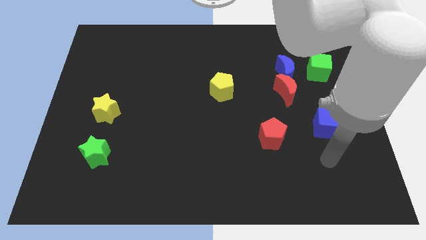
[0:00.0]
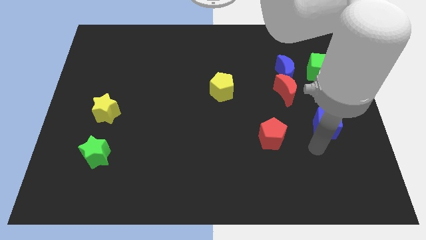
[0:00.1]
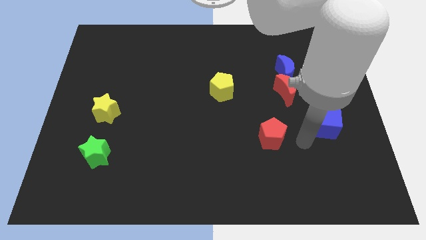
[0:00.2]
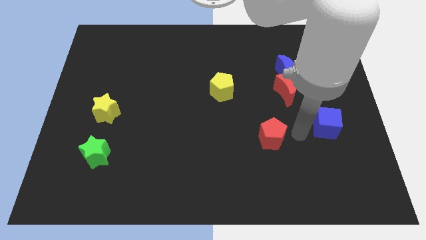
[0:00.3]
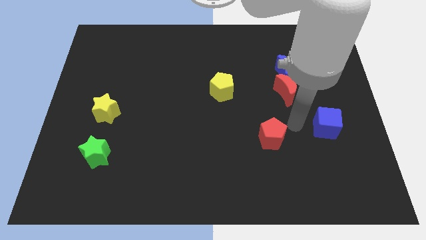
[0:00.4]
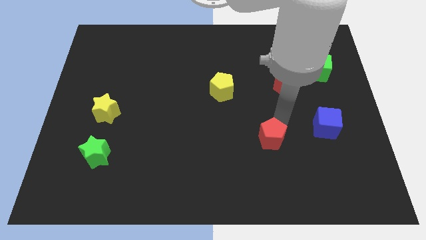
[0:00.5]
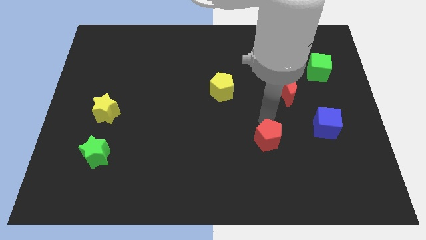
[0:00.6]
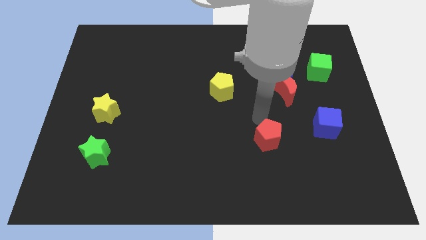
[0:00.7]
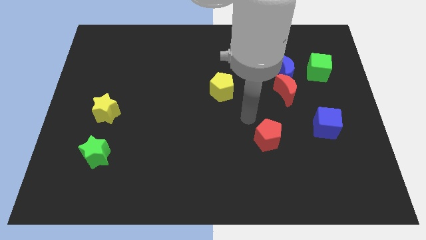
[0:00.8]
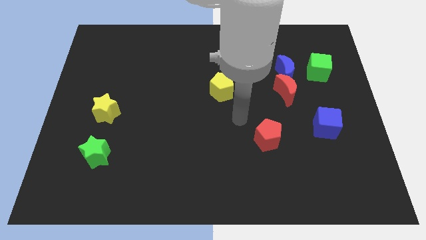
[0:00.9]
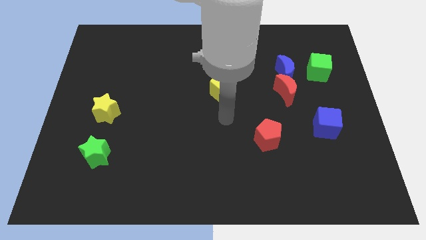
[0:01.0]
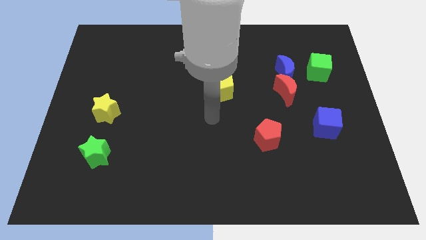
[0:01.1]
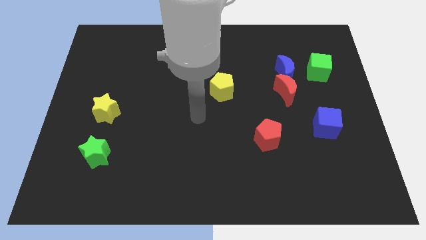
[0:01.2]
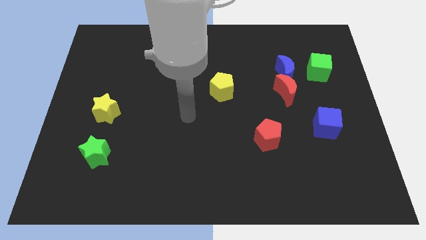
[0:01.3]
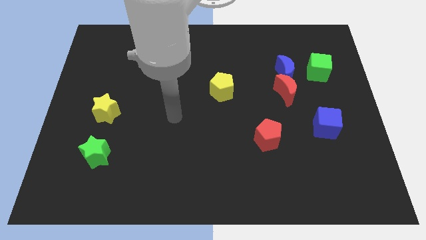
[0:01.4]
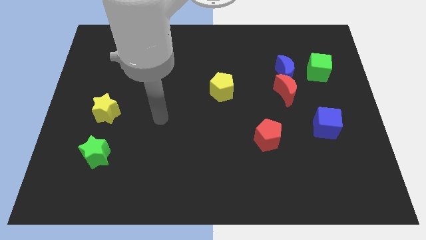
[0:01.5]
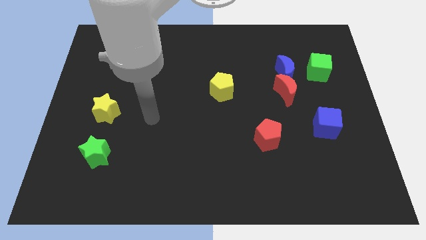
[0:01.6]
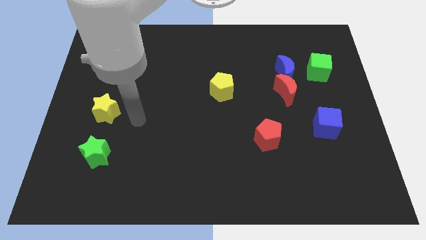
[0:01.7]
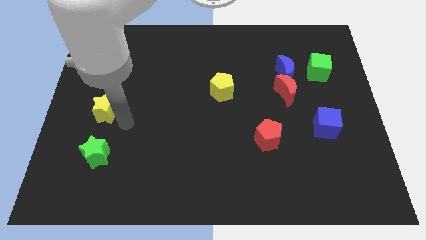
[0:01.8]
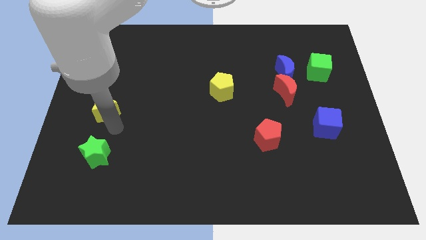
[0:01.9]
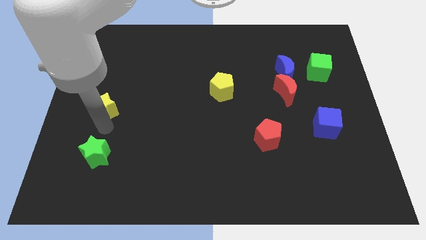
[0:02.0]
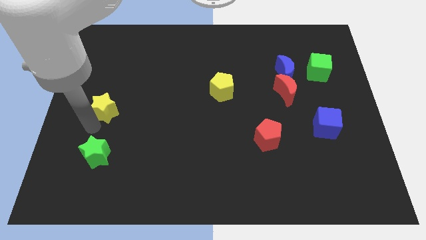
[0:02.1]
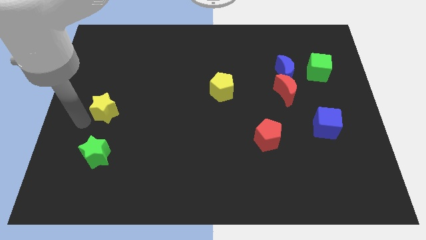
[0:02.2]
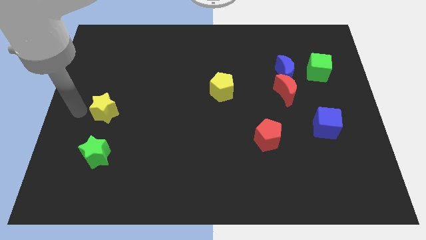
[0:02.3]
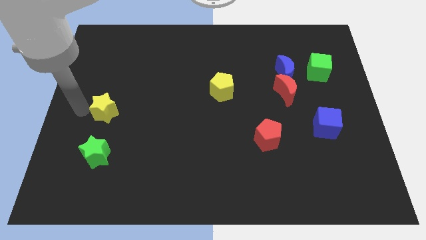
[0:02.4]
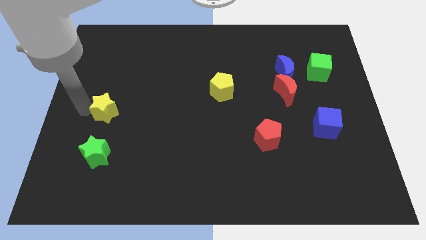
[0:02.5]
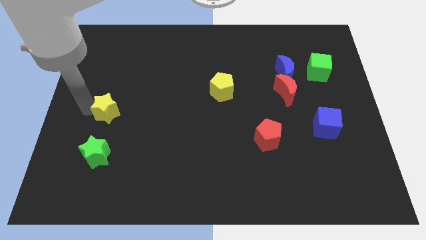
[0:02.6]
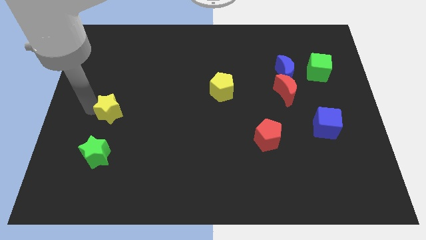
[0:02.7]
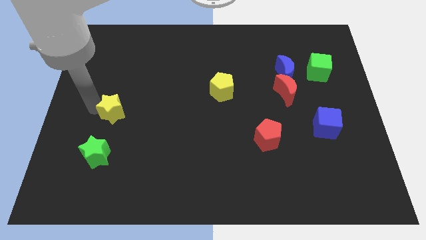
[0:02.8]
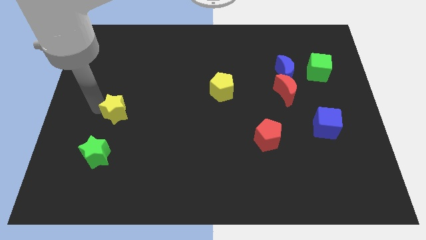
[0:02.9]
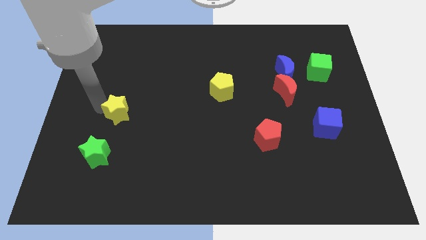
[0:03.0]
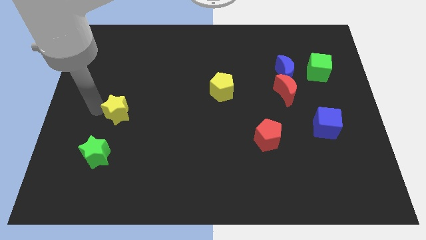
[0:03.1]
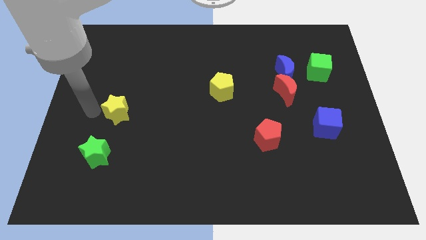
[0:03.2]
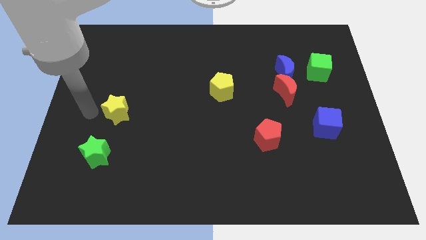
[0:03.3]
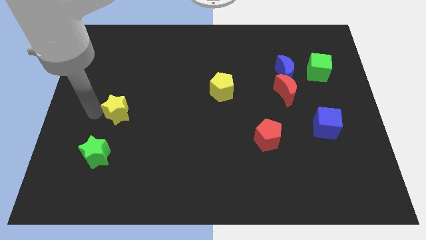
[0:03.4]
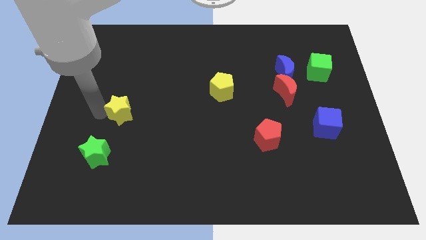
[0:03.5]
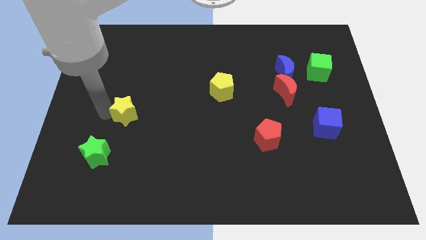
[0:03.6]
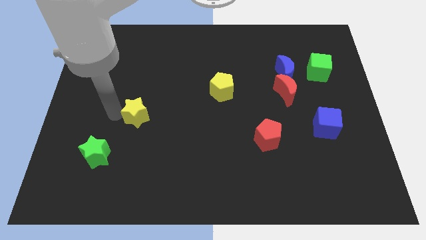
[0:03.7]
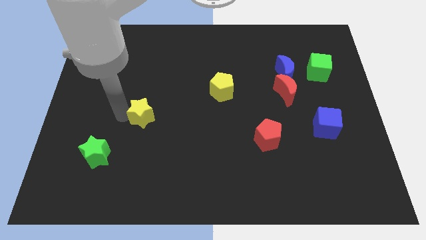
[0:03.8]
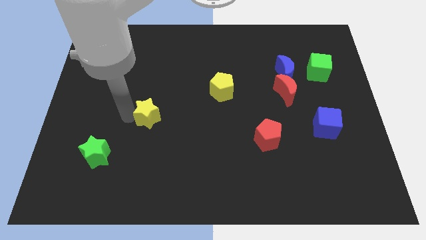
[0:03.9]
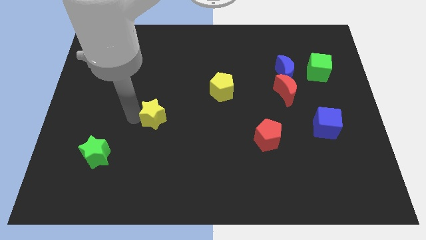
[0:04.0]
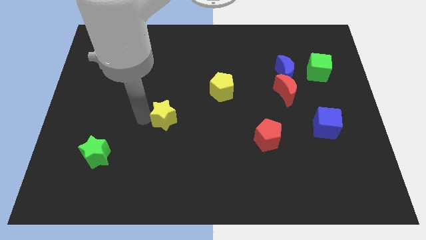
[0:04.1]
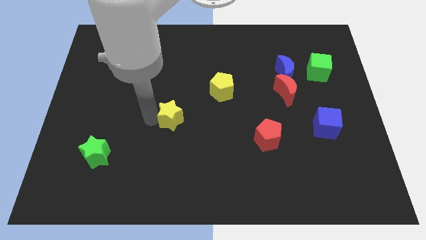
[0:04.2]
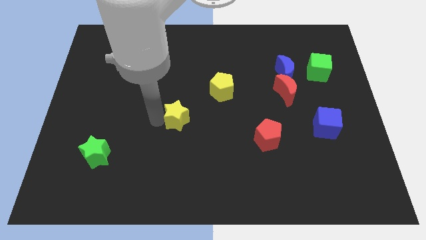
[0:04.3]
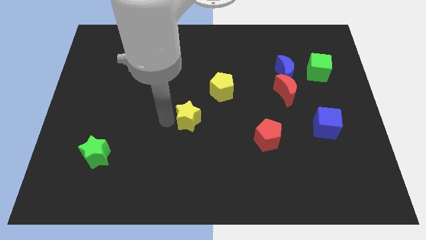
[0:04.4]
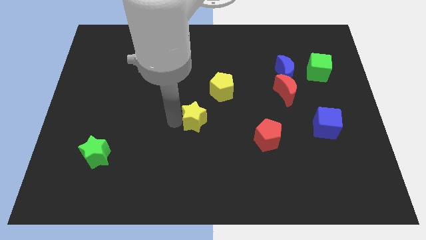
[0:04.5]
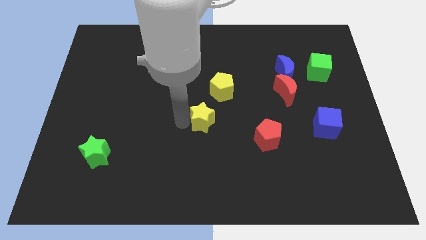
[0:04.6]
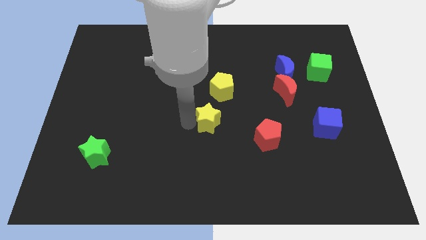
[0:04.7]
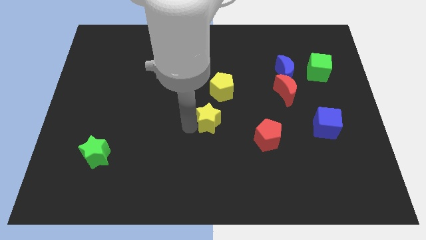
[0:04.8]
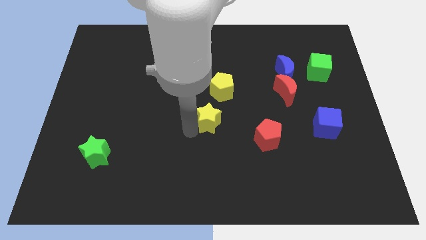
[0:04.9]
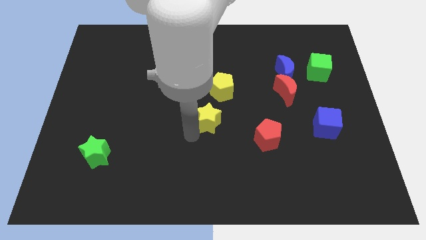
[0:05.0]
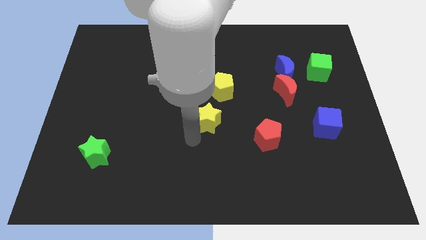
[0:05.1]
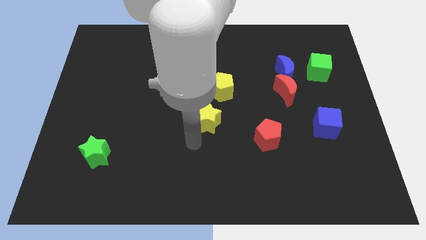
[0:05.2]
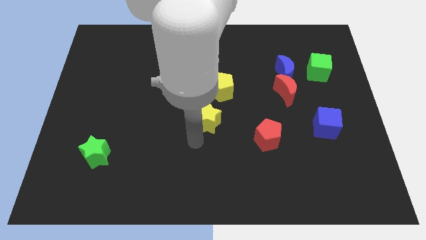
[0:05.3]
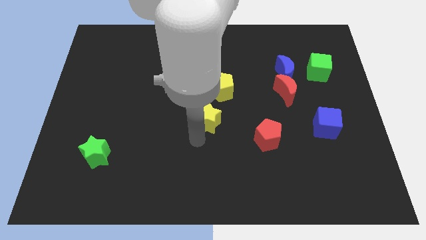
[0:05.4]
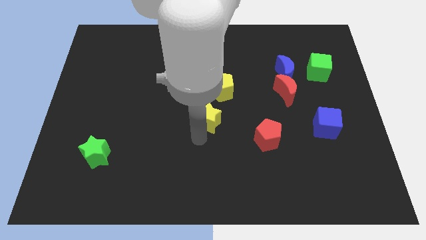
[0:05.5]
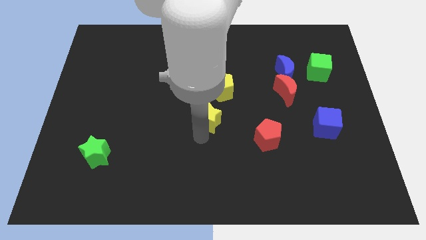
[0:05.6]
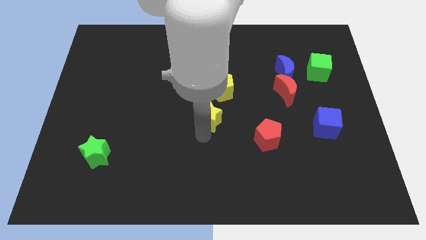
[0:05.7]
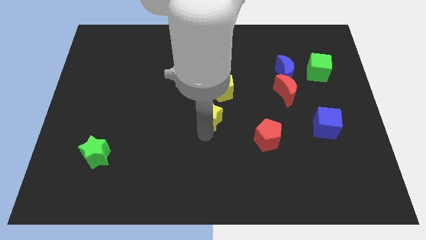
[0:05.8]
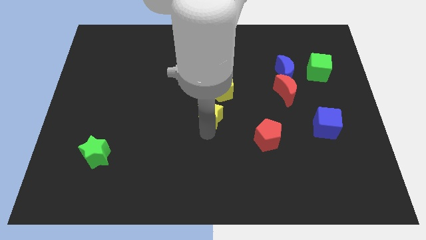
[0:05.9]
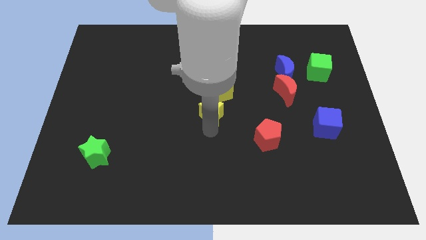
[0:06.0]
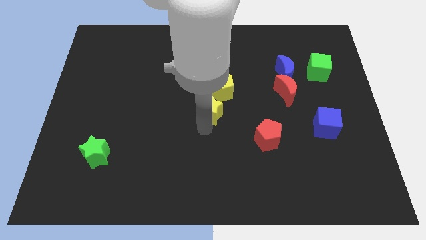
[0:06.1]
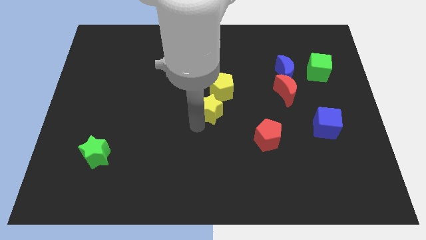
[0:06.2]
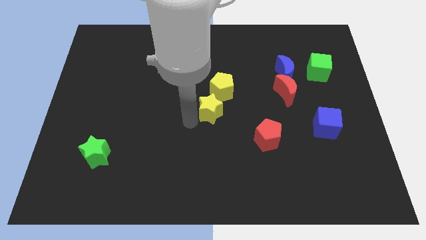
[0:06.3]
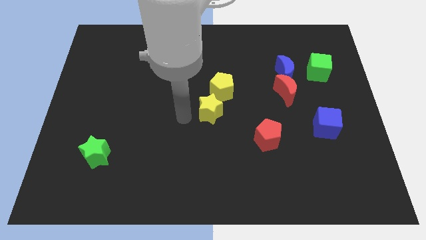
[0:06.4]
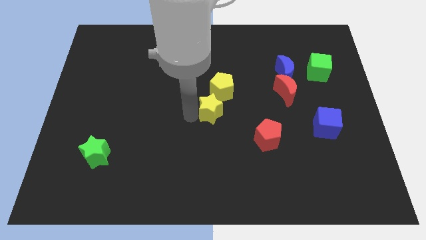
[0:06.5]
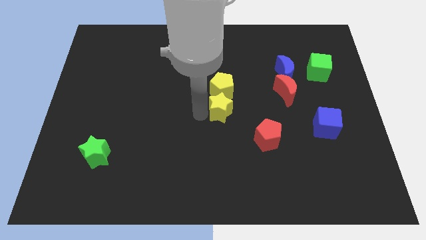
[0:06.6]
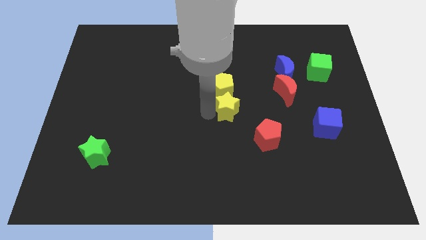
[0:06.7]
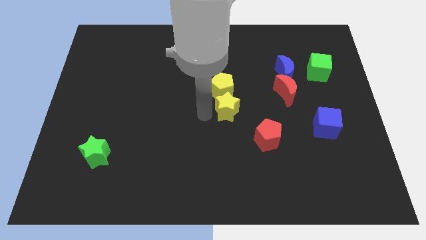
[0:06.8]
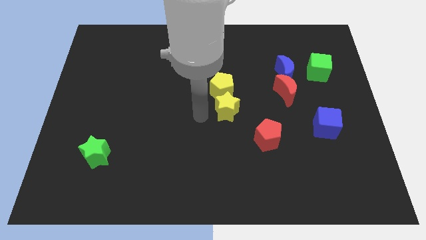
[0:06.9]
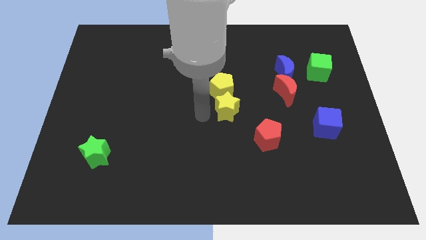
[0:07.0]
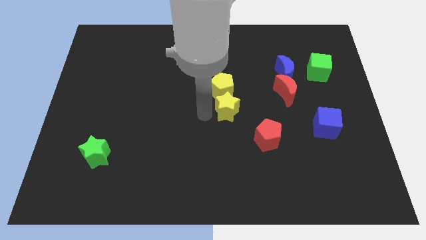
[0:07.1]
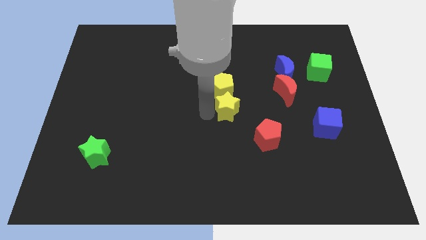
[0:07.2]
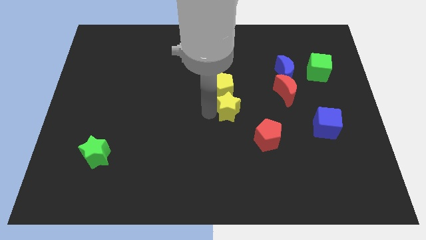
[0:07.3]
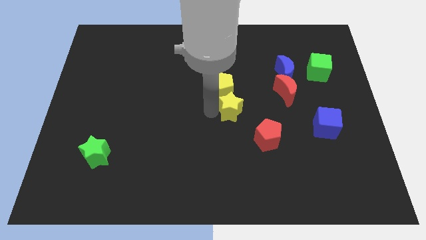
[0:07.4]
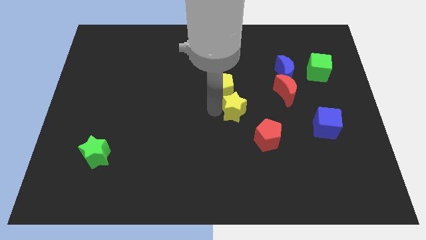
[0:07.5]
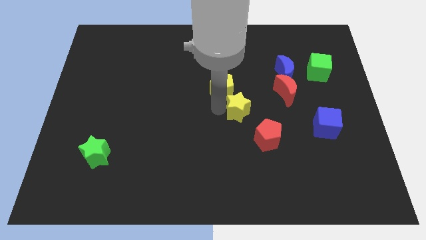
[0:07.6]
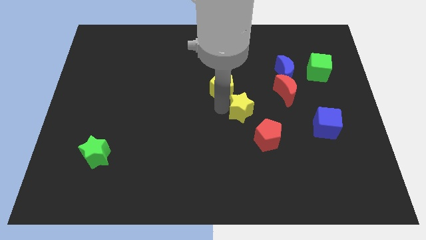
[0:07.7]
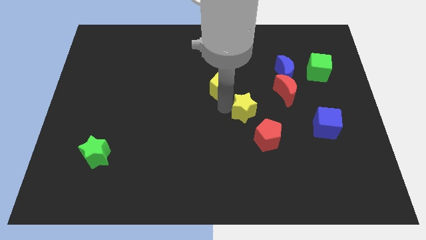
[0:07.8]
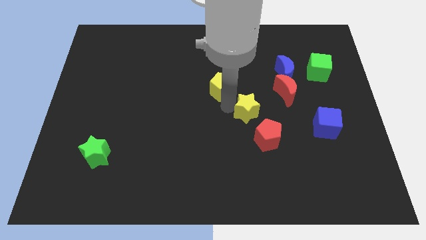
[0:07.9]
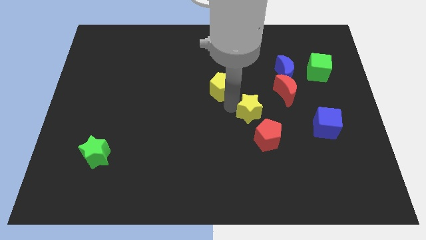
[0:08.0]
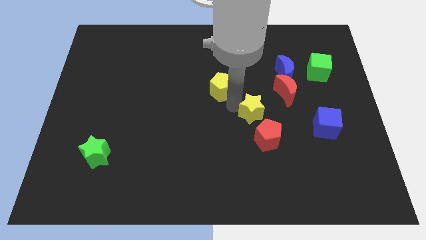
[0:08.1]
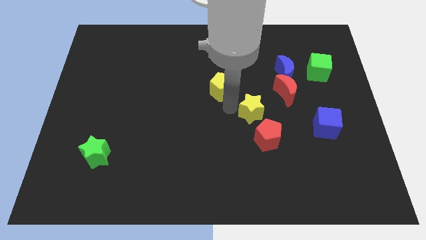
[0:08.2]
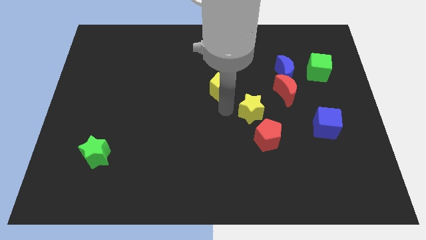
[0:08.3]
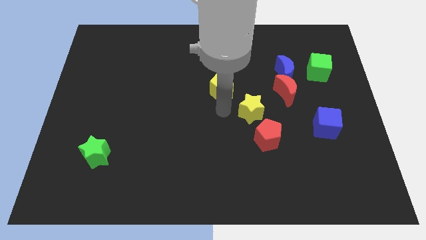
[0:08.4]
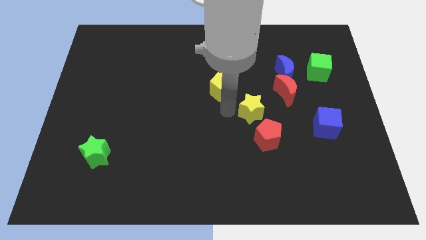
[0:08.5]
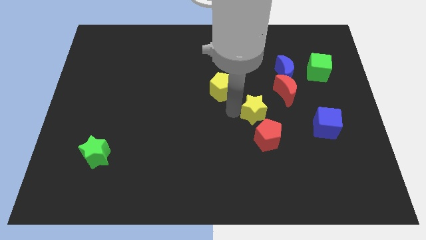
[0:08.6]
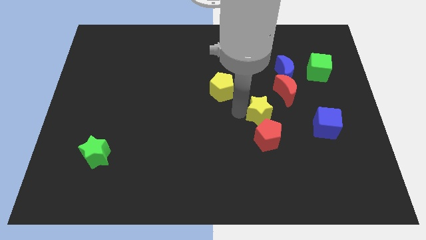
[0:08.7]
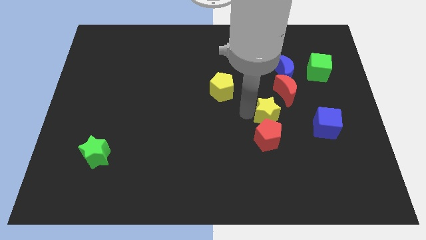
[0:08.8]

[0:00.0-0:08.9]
push the yellow star diagonally up and to the right of the red pentagon
